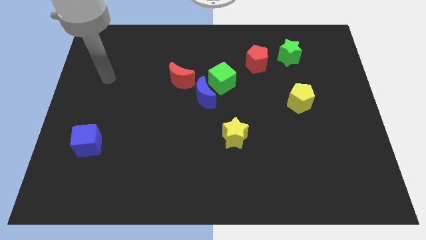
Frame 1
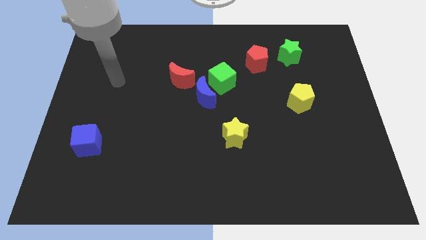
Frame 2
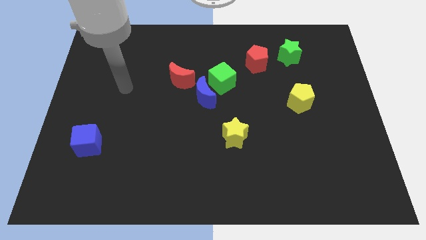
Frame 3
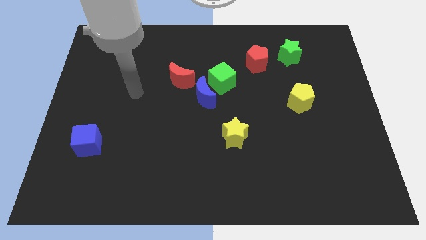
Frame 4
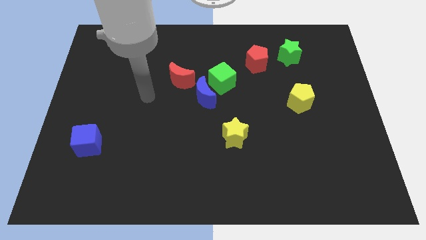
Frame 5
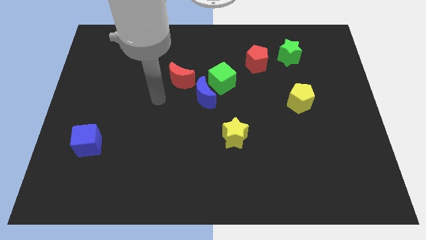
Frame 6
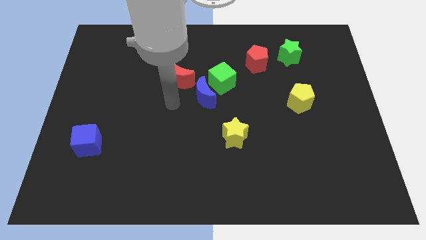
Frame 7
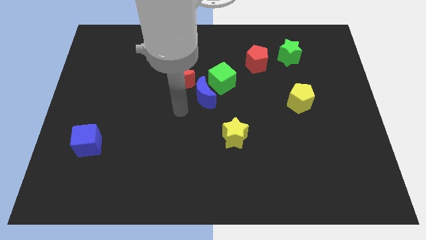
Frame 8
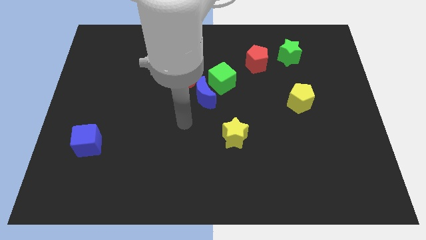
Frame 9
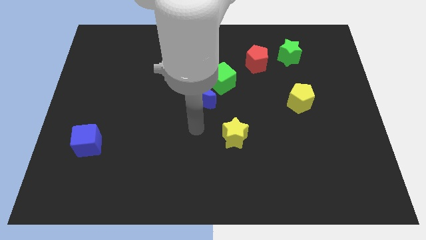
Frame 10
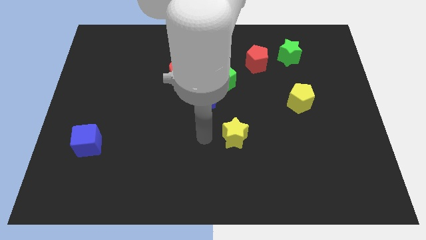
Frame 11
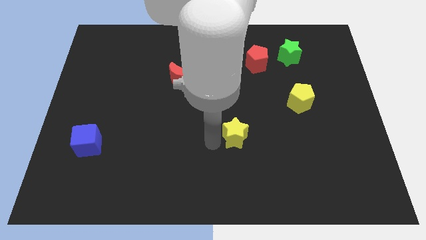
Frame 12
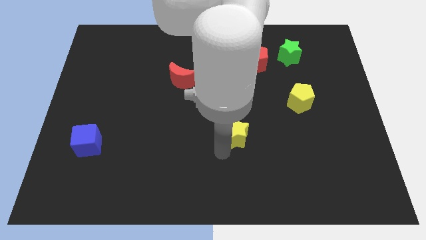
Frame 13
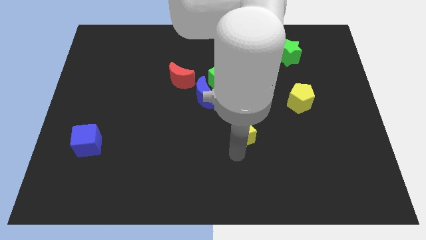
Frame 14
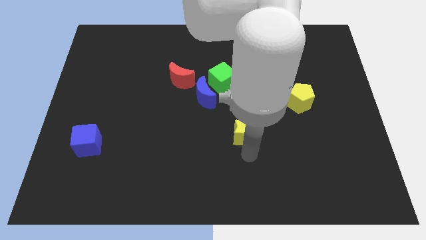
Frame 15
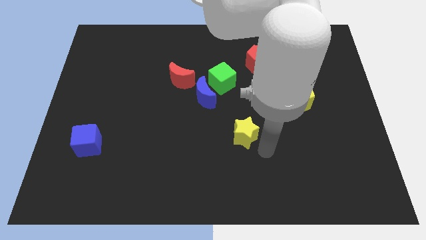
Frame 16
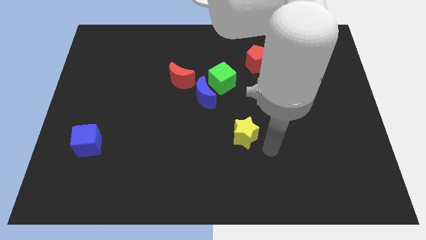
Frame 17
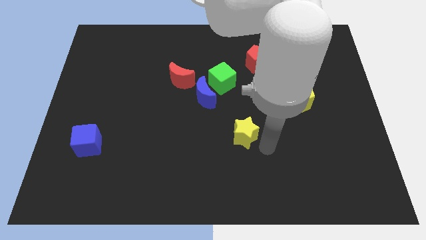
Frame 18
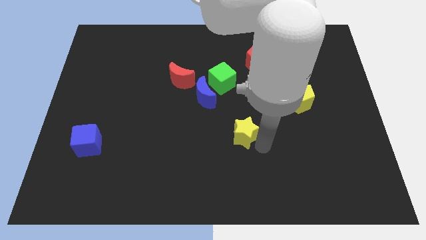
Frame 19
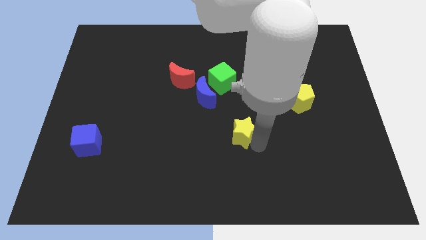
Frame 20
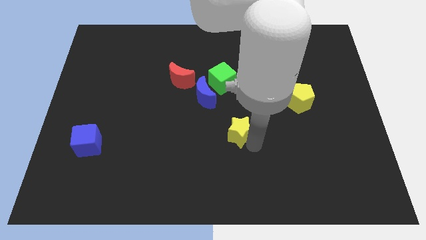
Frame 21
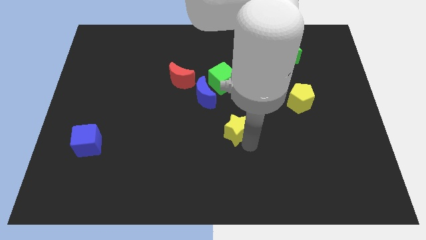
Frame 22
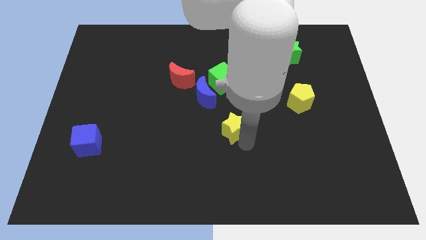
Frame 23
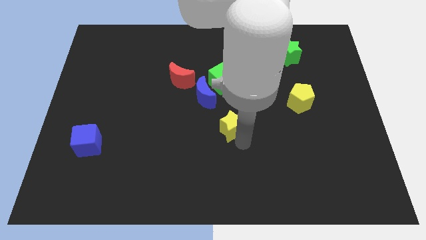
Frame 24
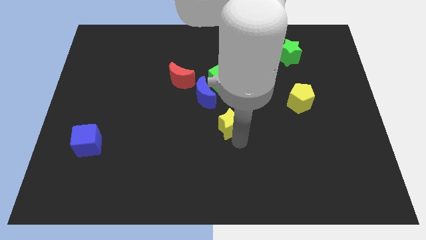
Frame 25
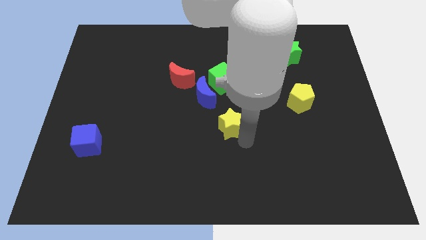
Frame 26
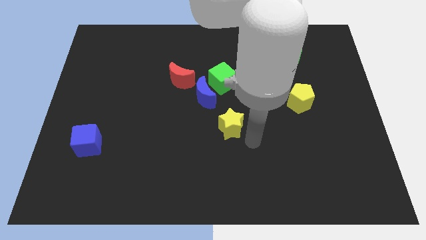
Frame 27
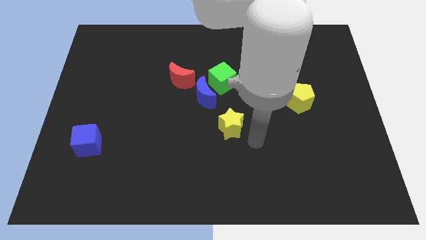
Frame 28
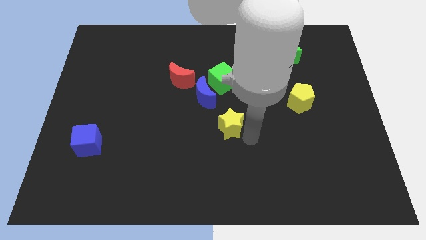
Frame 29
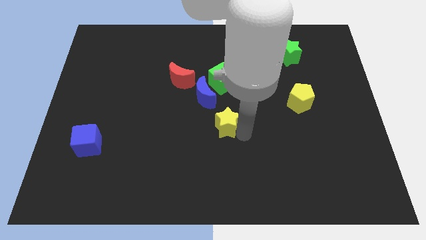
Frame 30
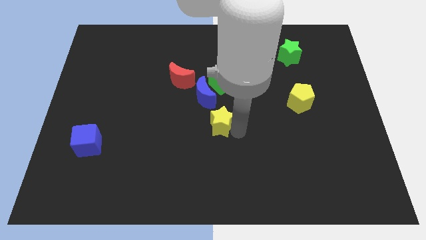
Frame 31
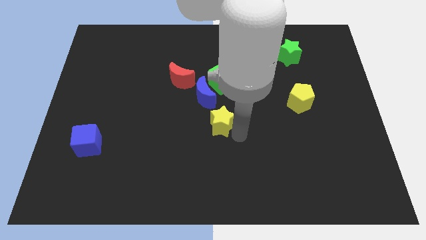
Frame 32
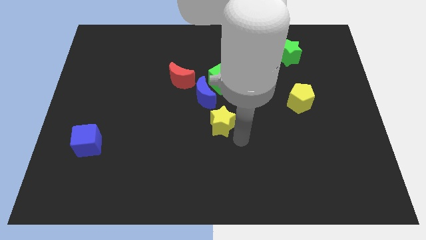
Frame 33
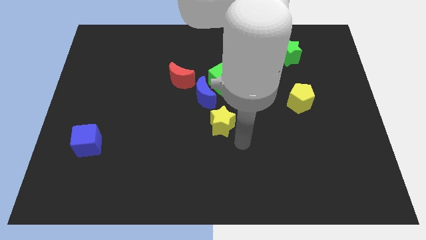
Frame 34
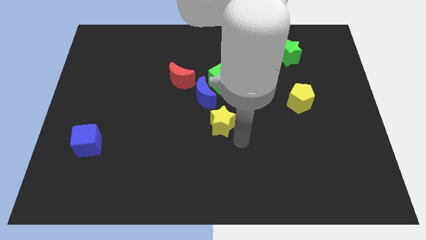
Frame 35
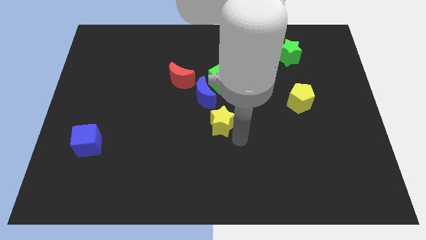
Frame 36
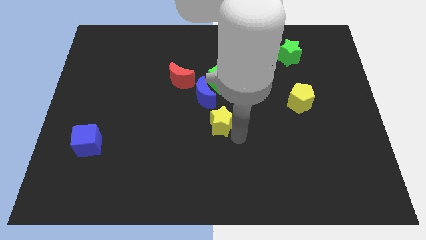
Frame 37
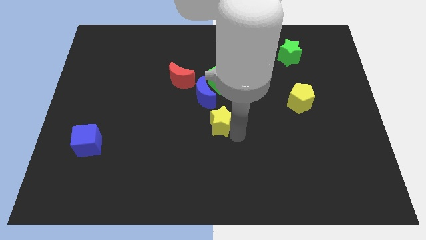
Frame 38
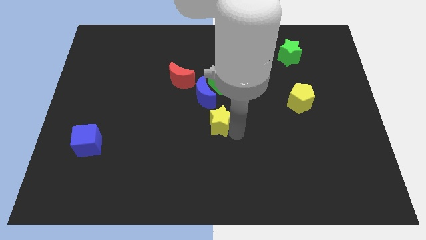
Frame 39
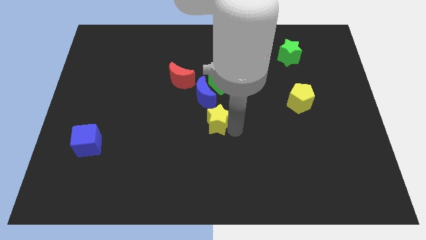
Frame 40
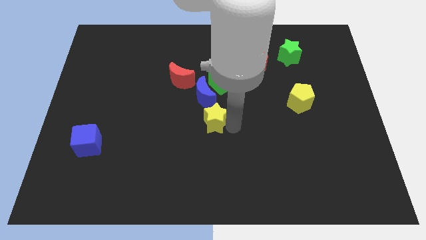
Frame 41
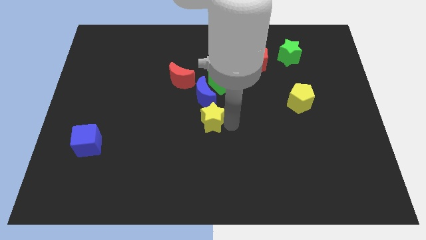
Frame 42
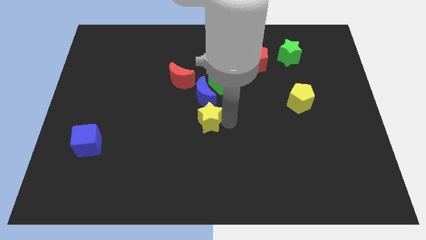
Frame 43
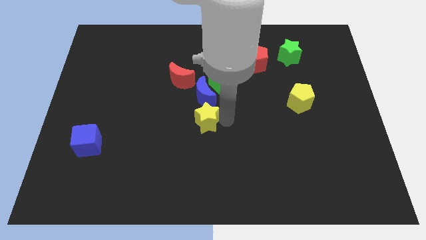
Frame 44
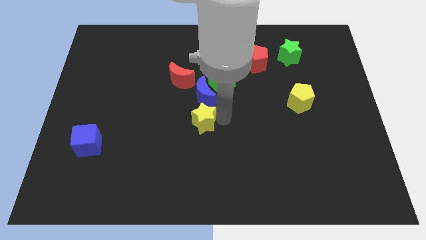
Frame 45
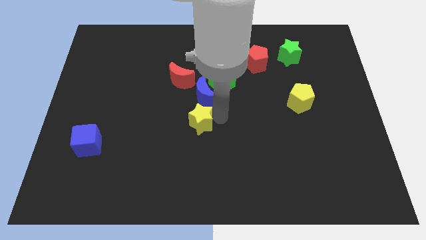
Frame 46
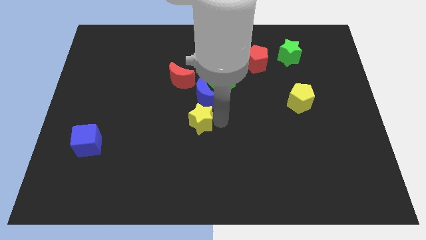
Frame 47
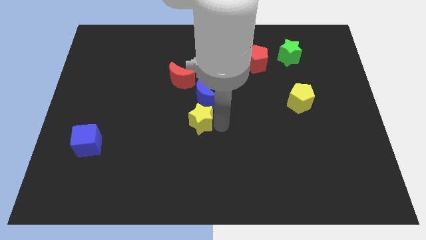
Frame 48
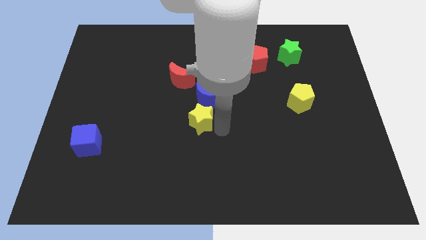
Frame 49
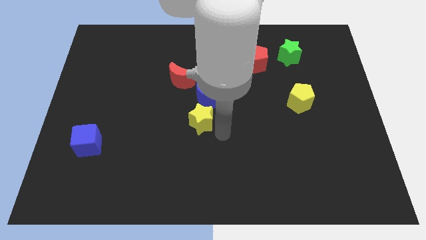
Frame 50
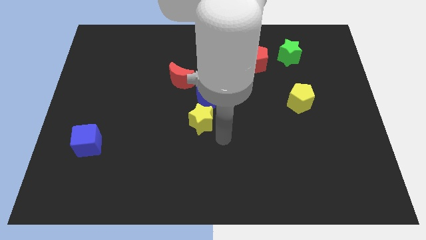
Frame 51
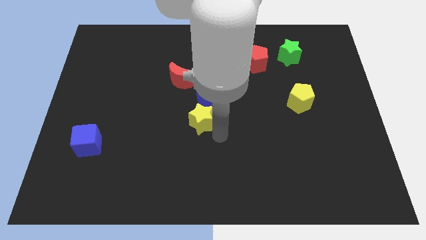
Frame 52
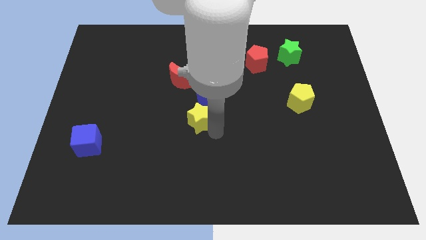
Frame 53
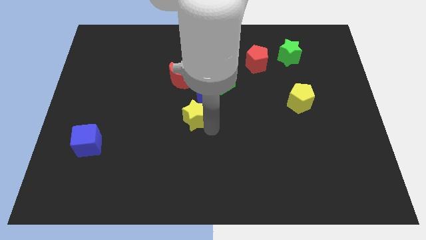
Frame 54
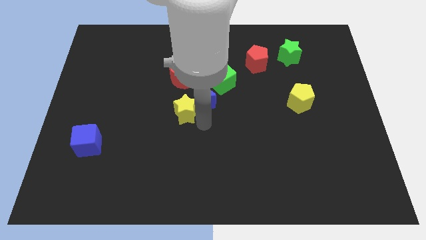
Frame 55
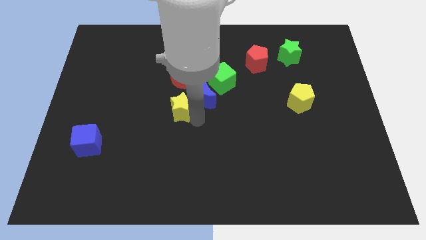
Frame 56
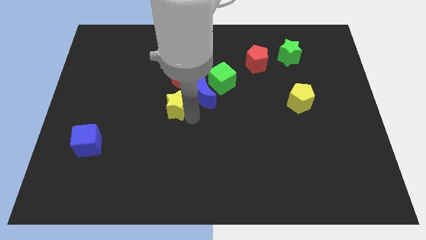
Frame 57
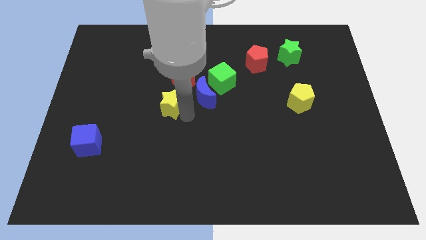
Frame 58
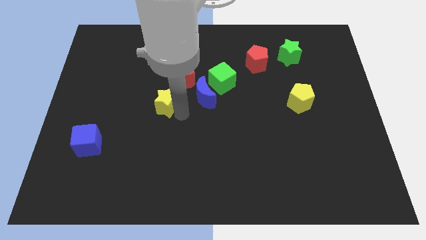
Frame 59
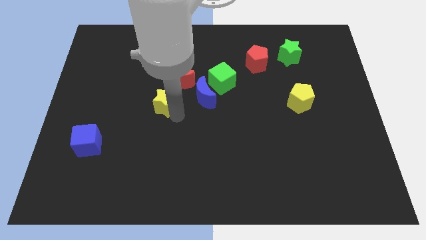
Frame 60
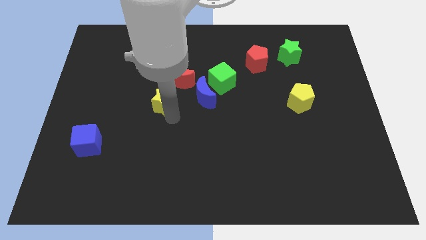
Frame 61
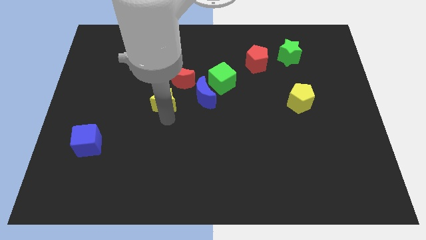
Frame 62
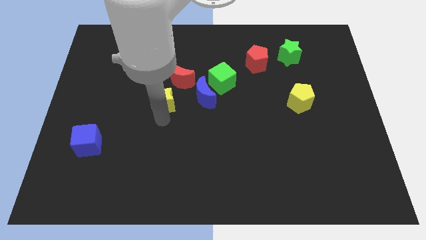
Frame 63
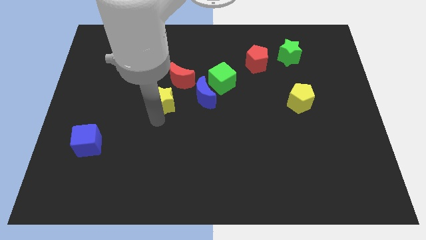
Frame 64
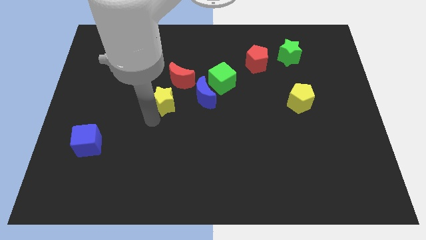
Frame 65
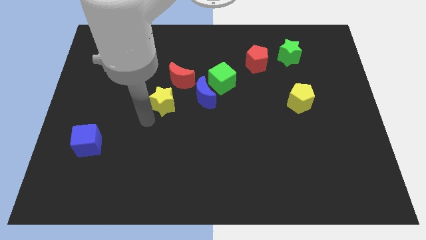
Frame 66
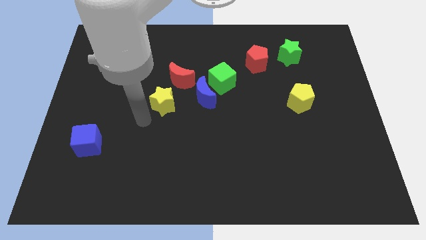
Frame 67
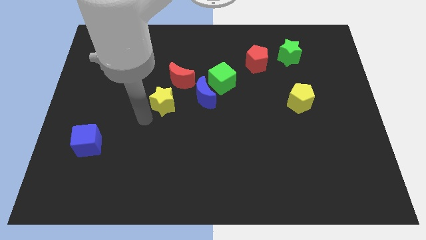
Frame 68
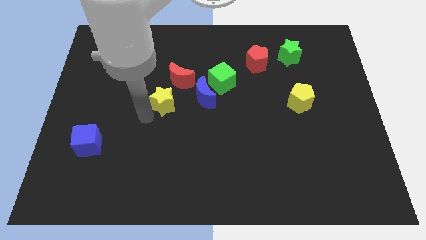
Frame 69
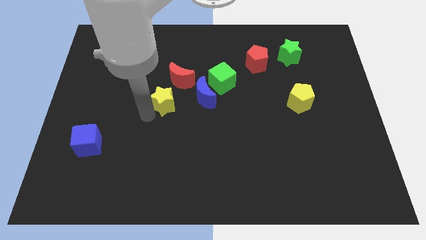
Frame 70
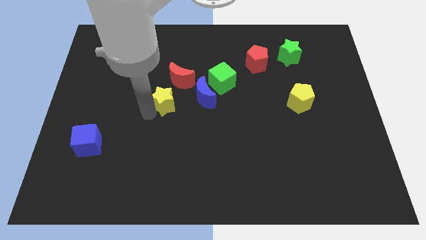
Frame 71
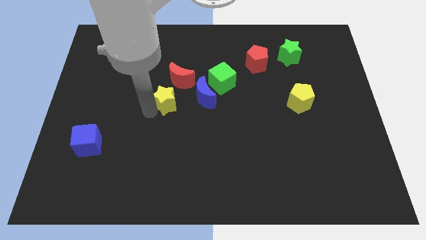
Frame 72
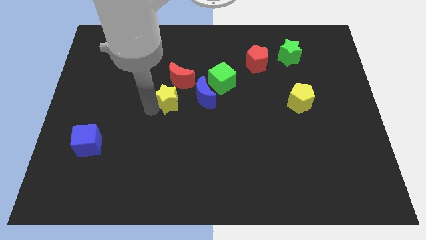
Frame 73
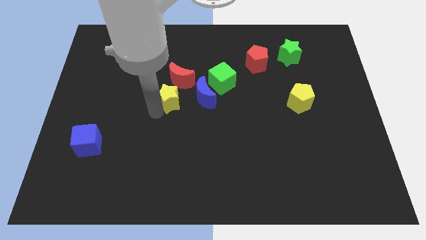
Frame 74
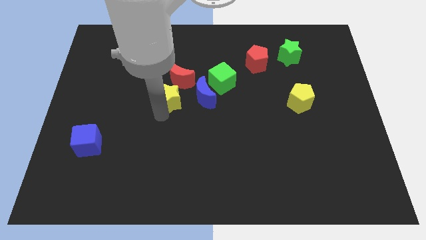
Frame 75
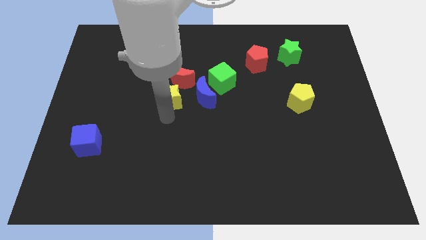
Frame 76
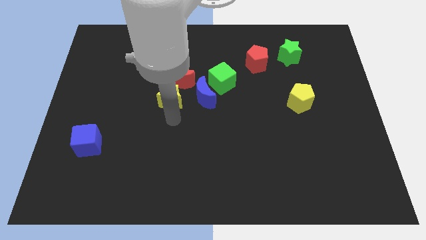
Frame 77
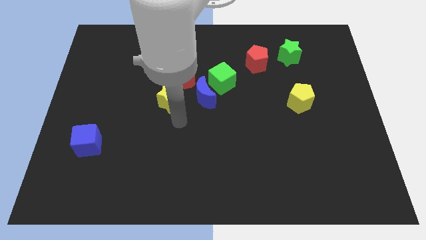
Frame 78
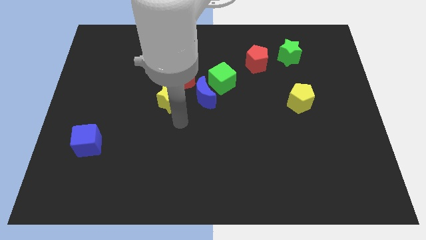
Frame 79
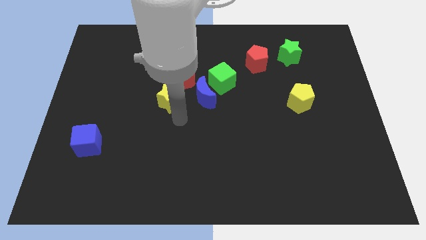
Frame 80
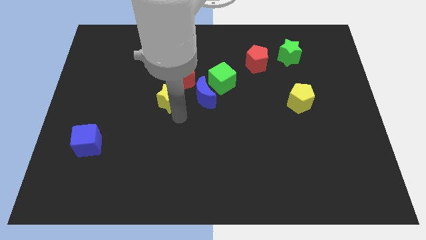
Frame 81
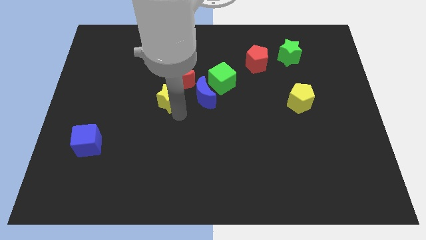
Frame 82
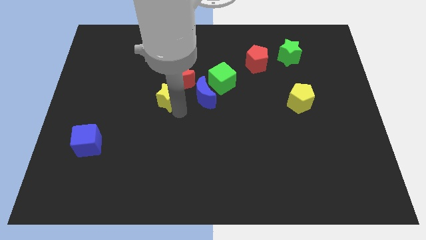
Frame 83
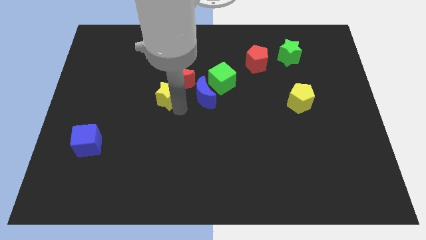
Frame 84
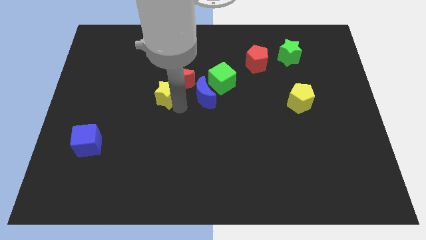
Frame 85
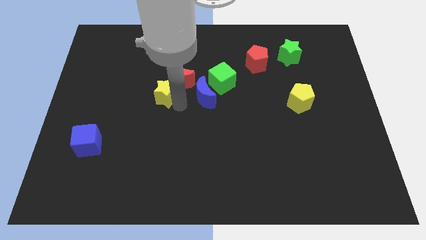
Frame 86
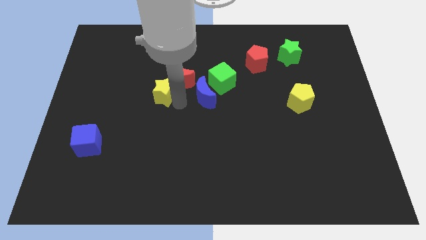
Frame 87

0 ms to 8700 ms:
push the yellow star upwards and to the left diagonally
